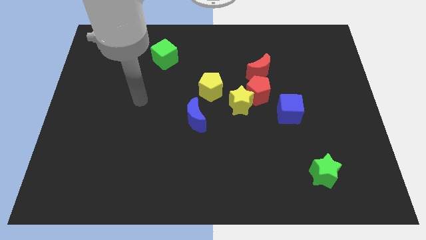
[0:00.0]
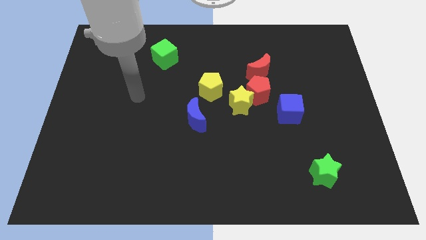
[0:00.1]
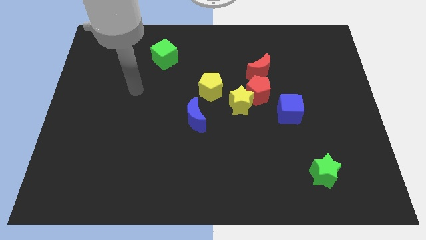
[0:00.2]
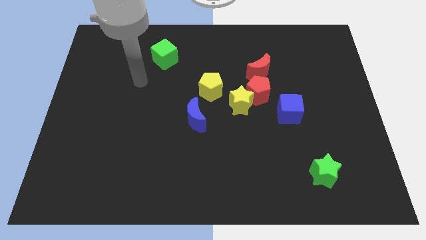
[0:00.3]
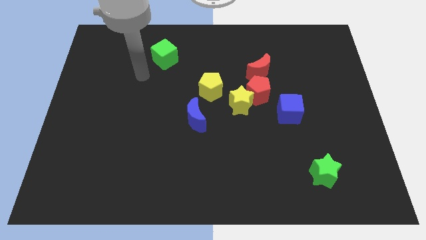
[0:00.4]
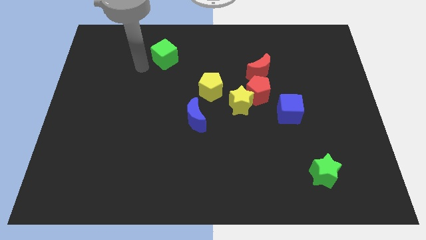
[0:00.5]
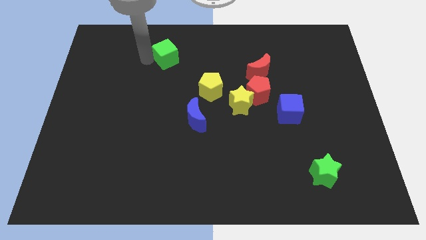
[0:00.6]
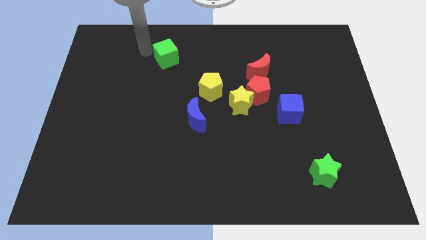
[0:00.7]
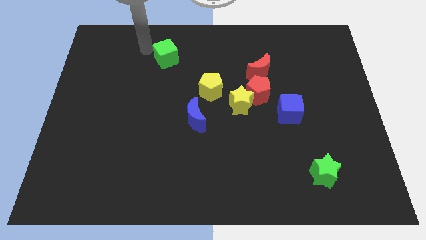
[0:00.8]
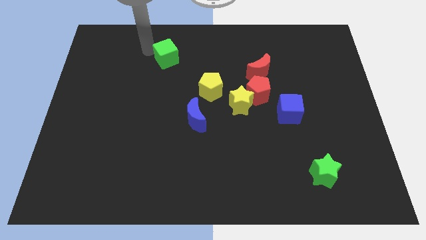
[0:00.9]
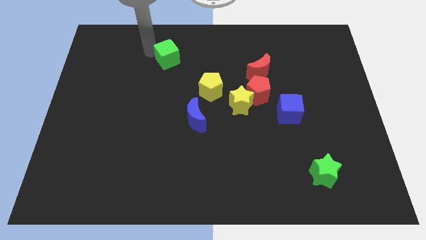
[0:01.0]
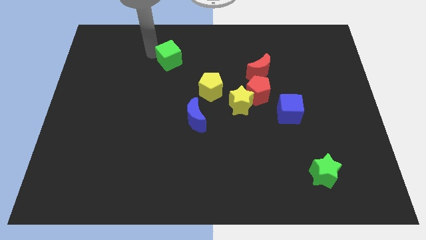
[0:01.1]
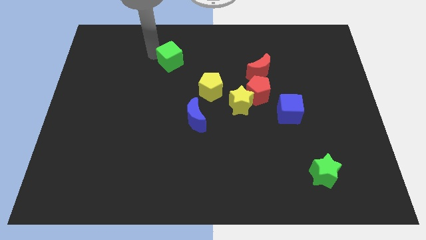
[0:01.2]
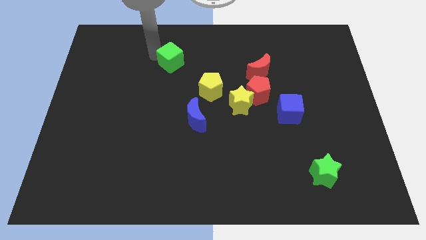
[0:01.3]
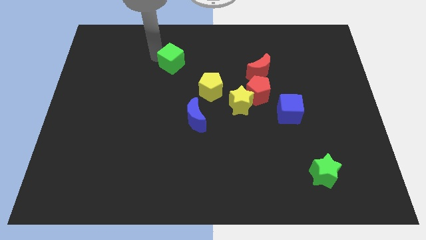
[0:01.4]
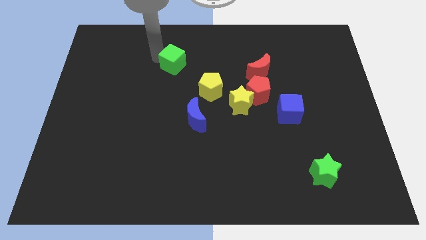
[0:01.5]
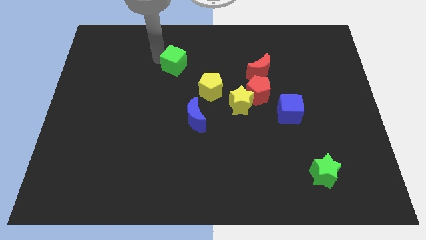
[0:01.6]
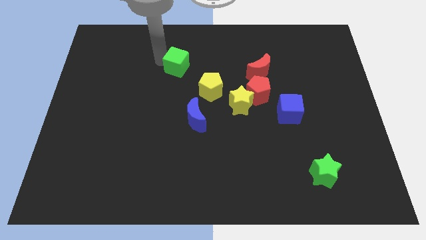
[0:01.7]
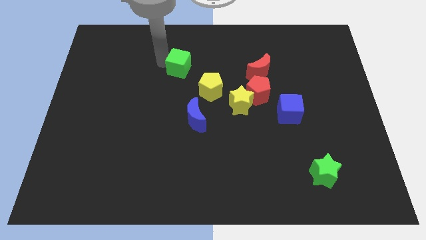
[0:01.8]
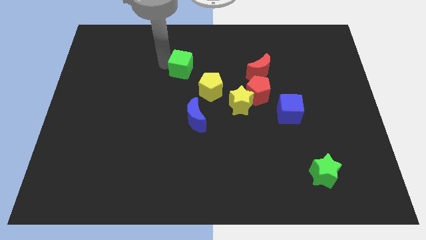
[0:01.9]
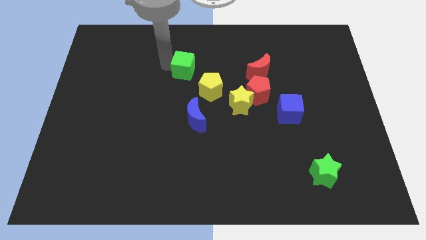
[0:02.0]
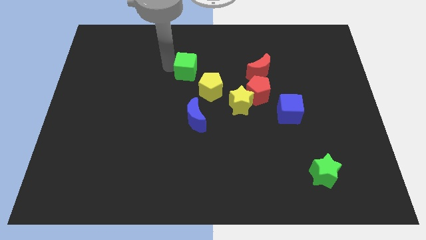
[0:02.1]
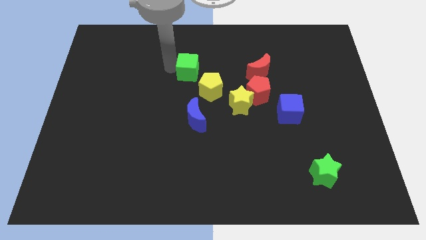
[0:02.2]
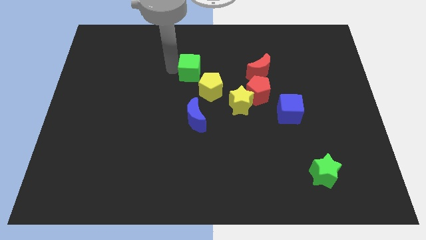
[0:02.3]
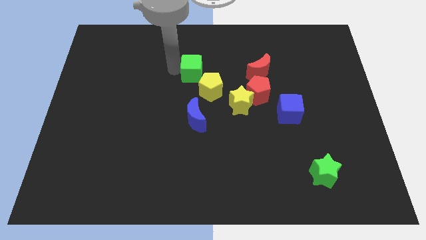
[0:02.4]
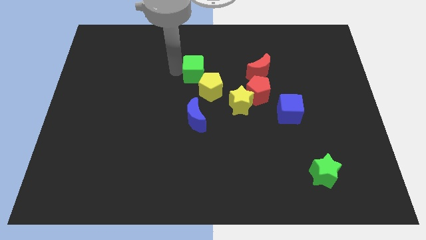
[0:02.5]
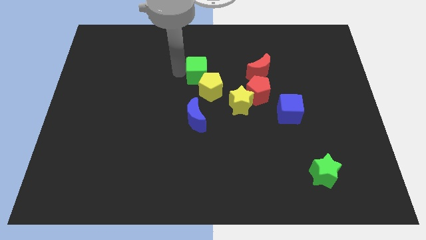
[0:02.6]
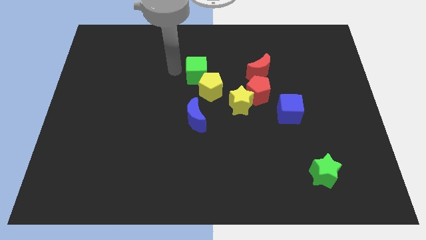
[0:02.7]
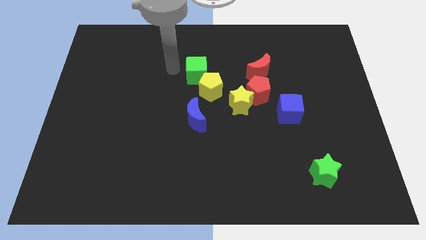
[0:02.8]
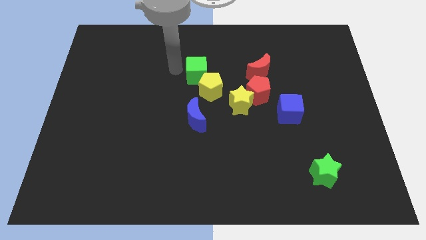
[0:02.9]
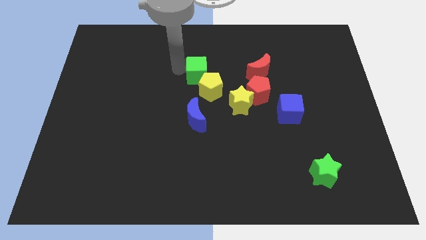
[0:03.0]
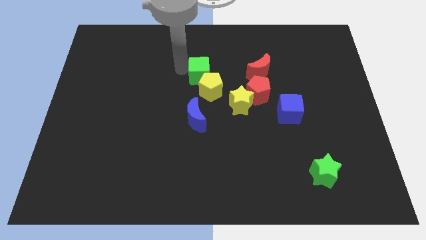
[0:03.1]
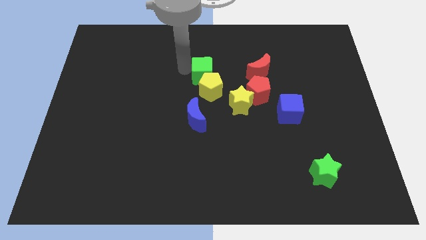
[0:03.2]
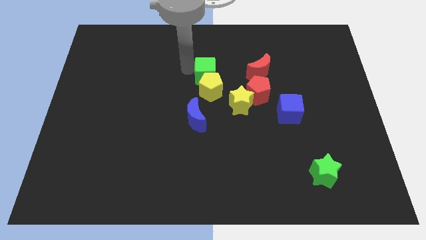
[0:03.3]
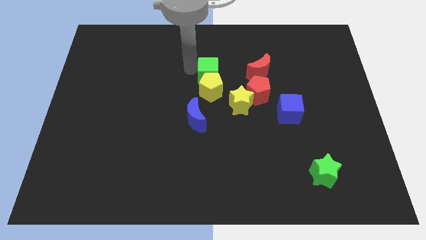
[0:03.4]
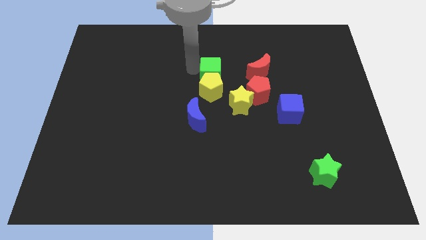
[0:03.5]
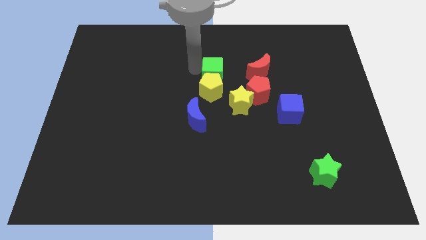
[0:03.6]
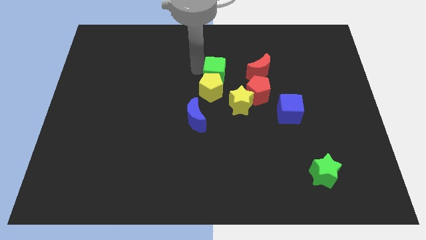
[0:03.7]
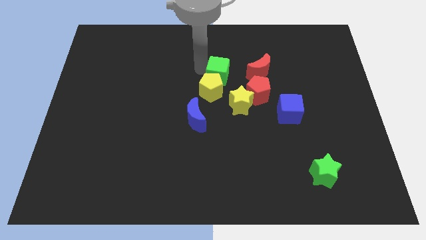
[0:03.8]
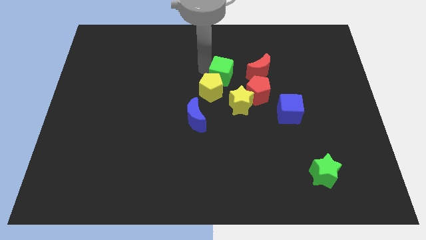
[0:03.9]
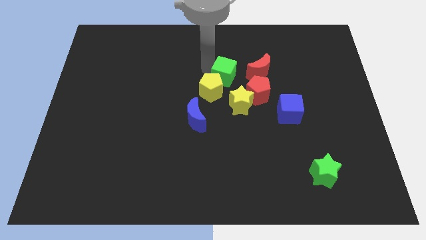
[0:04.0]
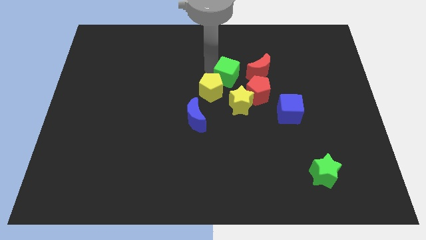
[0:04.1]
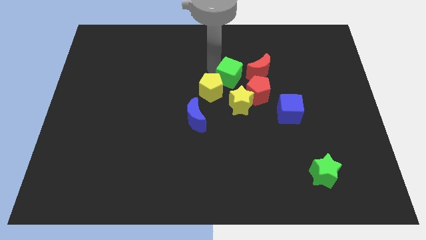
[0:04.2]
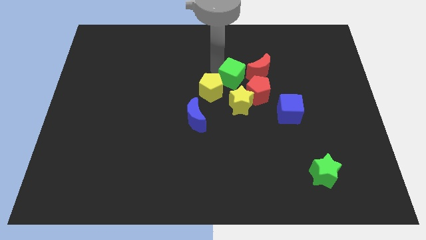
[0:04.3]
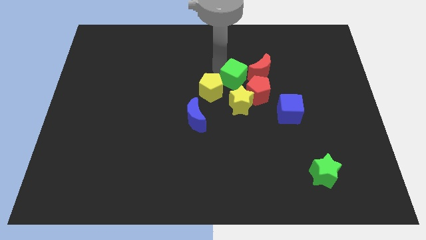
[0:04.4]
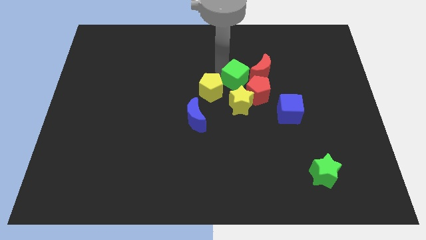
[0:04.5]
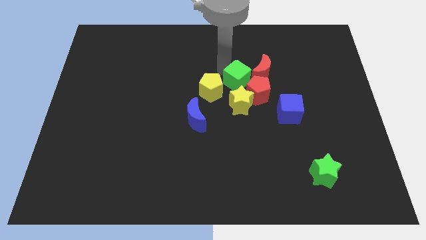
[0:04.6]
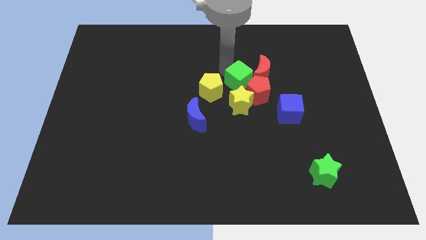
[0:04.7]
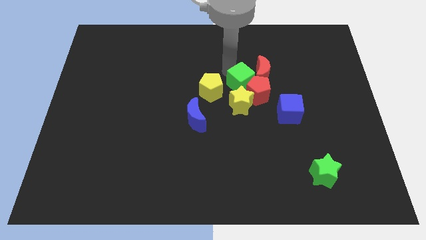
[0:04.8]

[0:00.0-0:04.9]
push the green cube close to the red pentagon

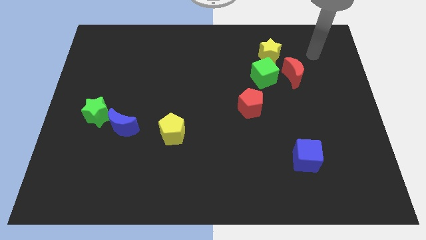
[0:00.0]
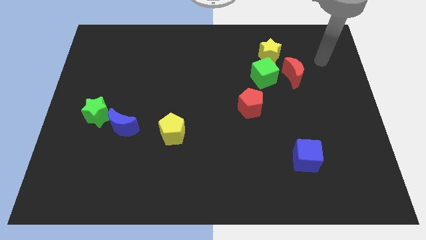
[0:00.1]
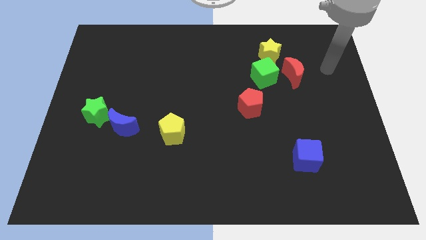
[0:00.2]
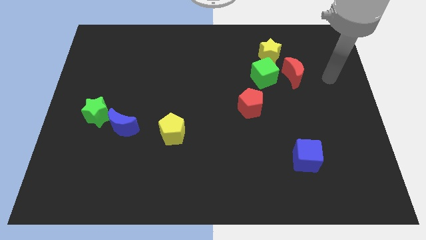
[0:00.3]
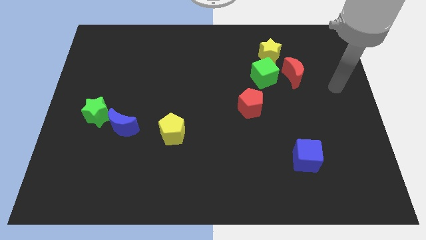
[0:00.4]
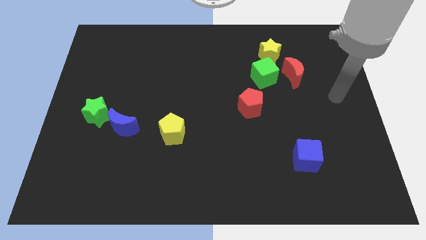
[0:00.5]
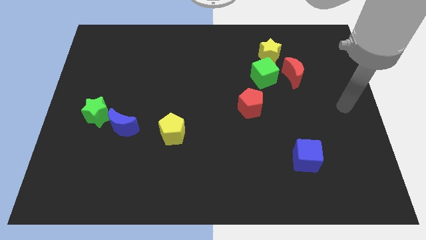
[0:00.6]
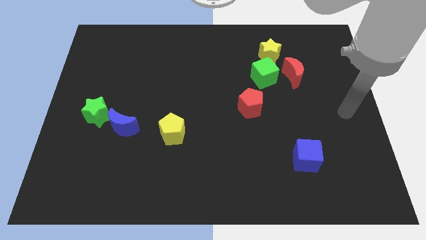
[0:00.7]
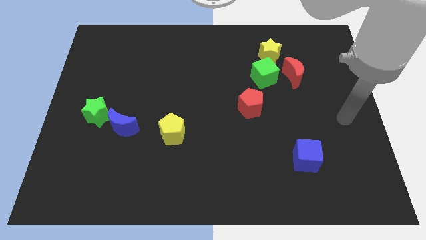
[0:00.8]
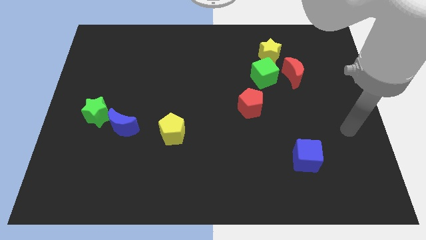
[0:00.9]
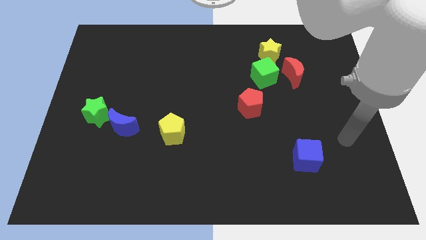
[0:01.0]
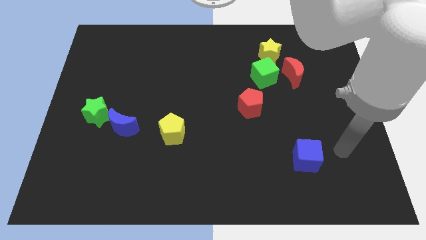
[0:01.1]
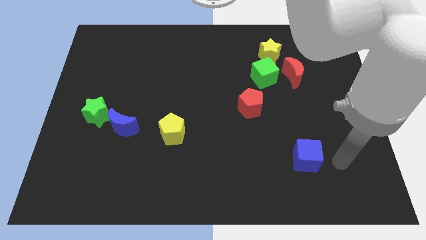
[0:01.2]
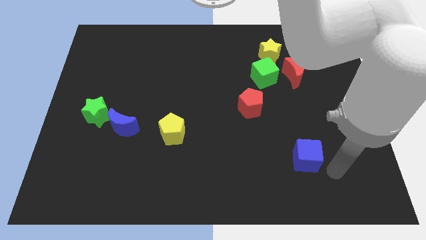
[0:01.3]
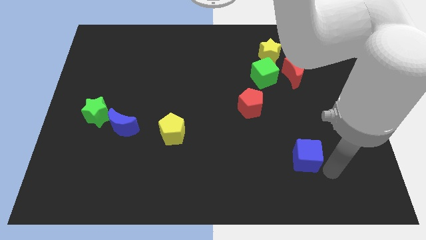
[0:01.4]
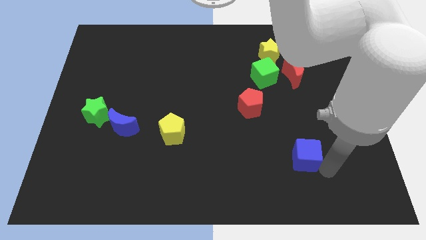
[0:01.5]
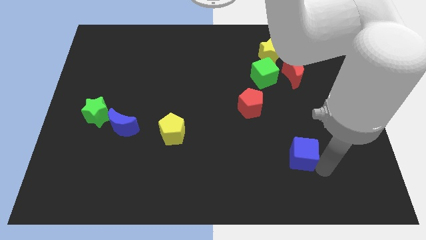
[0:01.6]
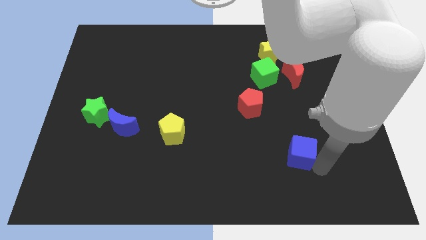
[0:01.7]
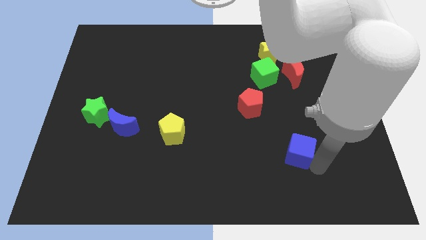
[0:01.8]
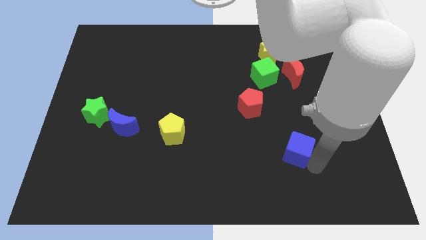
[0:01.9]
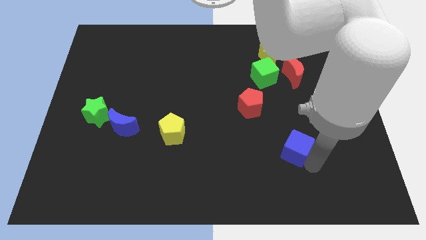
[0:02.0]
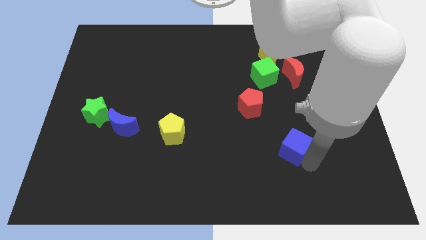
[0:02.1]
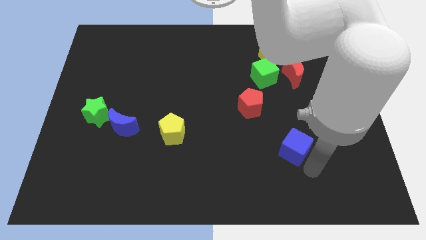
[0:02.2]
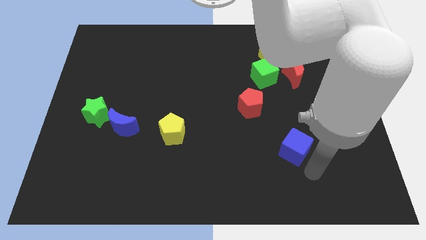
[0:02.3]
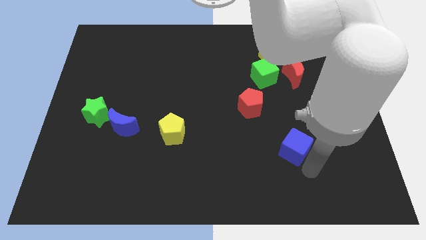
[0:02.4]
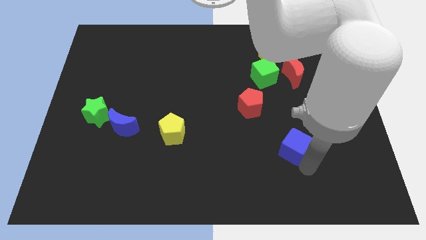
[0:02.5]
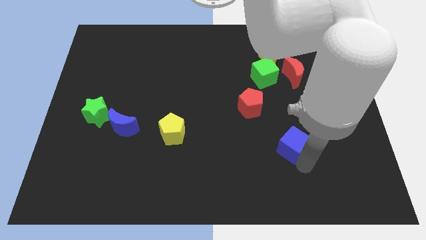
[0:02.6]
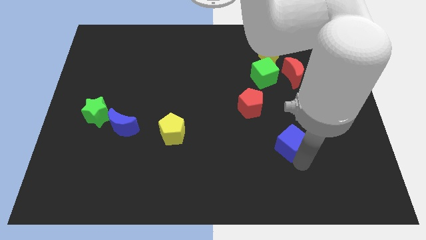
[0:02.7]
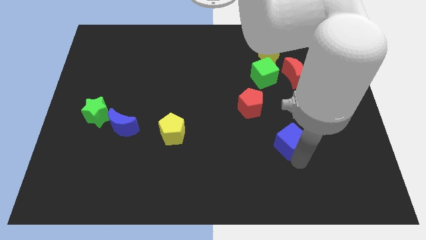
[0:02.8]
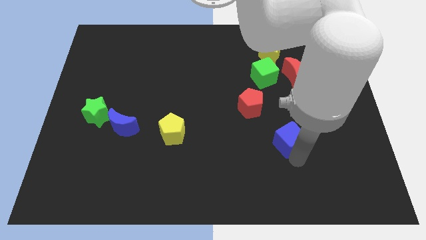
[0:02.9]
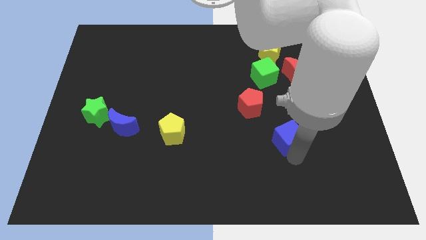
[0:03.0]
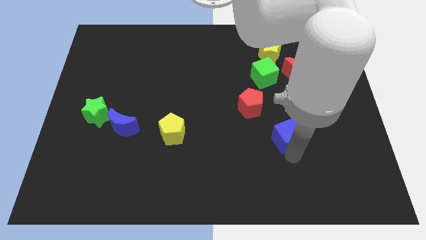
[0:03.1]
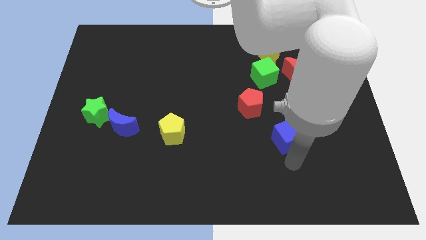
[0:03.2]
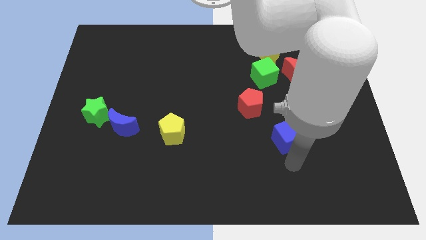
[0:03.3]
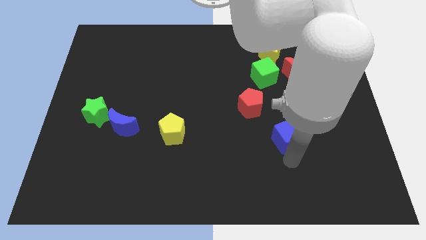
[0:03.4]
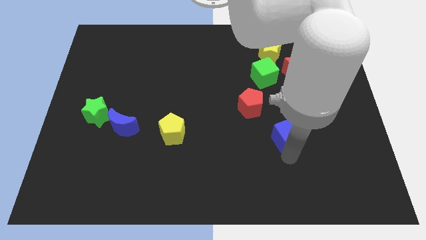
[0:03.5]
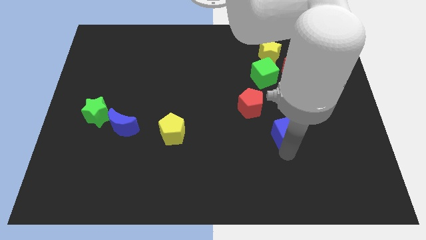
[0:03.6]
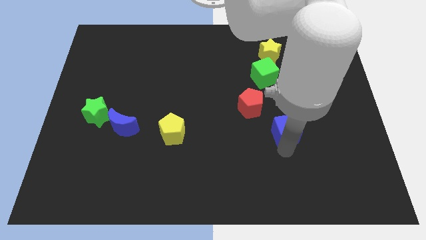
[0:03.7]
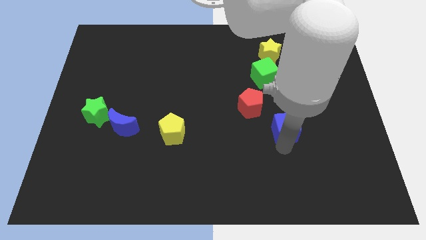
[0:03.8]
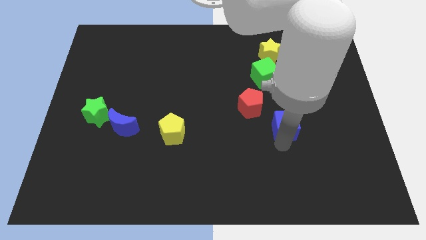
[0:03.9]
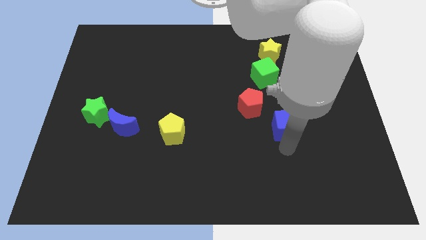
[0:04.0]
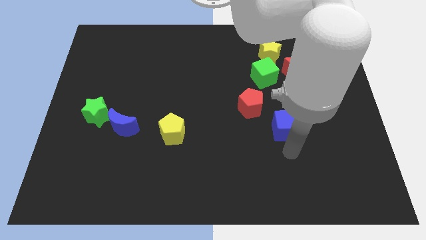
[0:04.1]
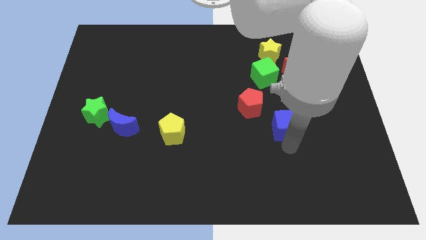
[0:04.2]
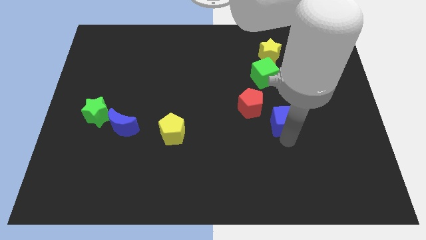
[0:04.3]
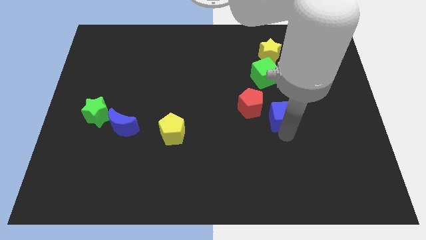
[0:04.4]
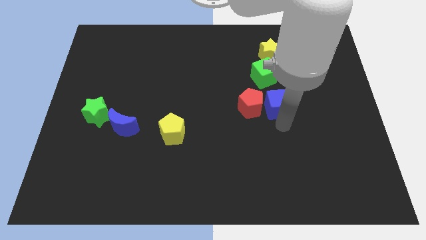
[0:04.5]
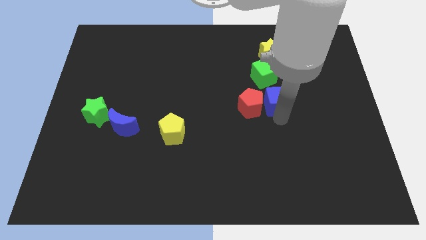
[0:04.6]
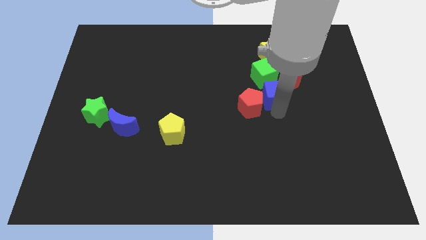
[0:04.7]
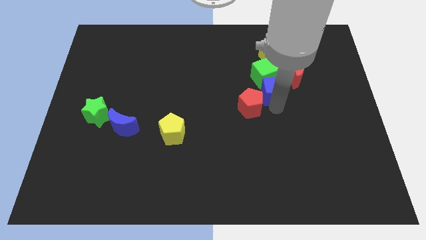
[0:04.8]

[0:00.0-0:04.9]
push the blue cube towards the green cube
